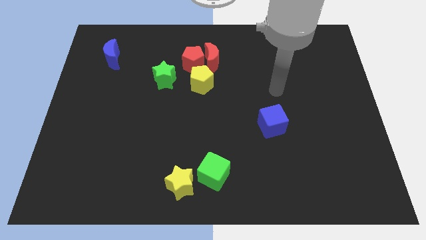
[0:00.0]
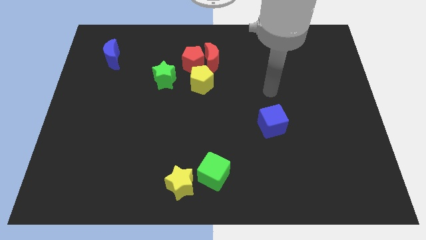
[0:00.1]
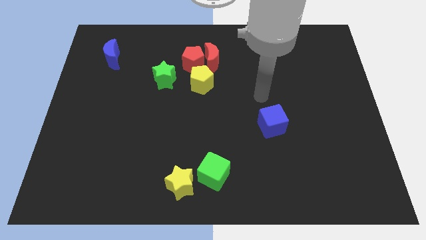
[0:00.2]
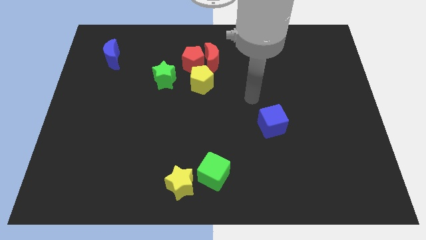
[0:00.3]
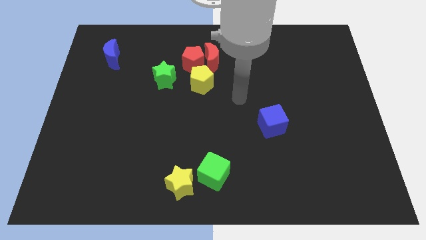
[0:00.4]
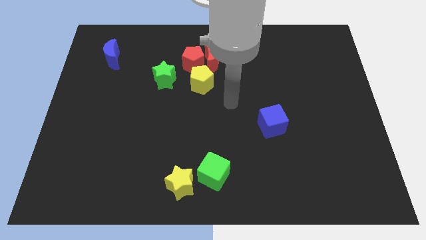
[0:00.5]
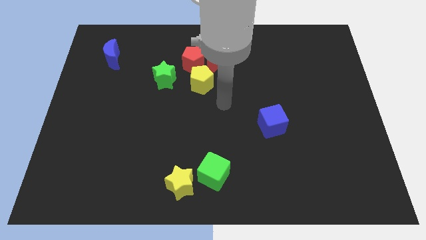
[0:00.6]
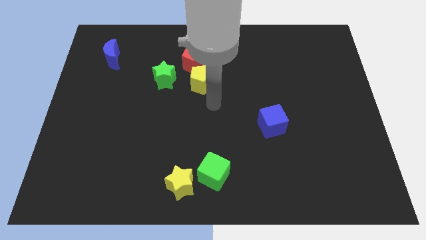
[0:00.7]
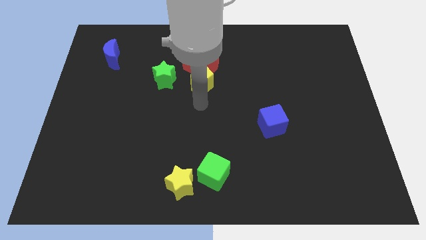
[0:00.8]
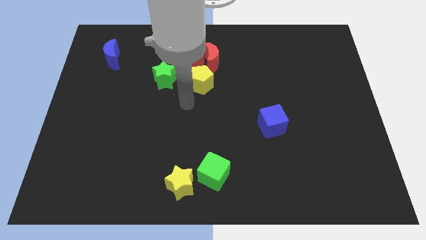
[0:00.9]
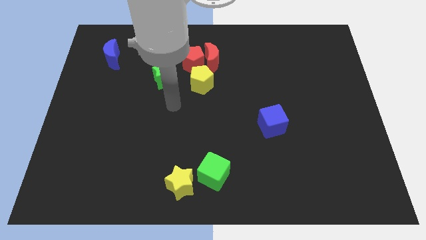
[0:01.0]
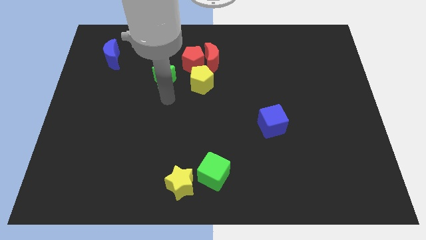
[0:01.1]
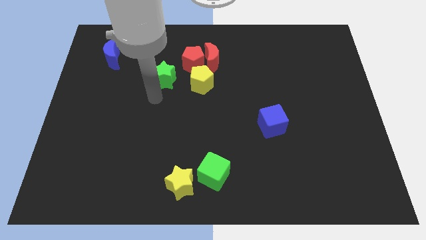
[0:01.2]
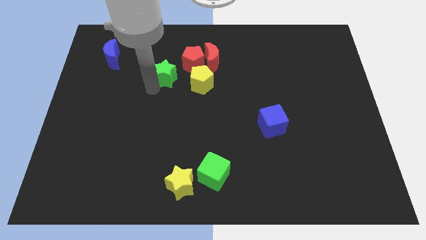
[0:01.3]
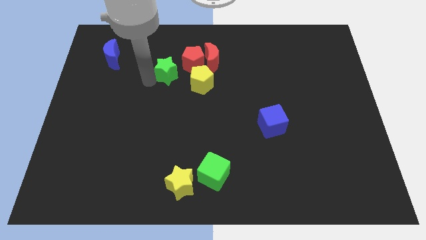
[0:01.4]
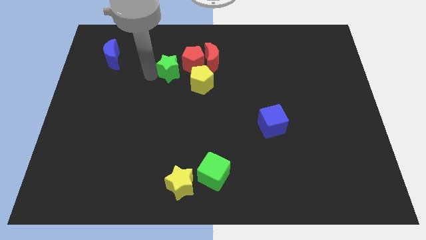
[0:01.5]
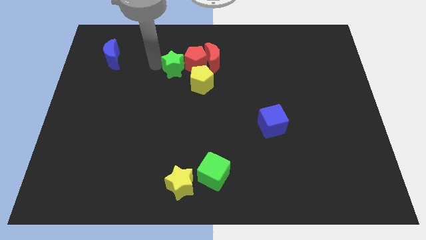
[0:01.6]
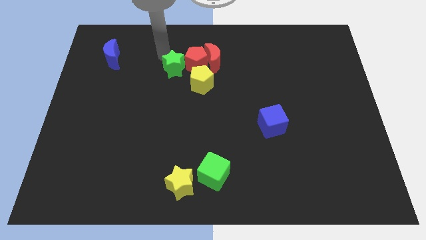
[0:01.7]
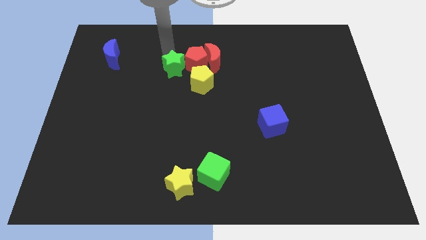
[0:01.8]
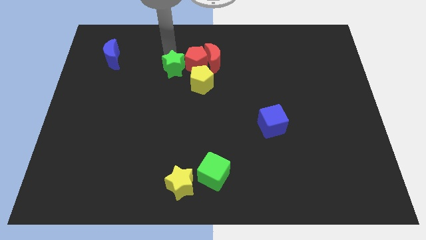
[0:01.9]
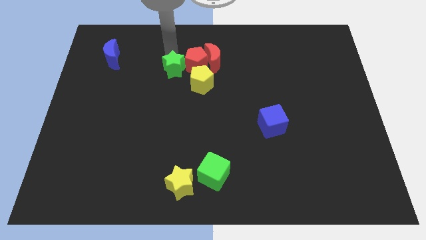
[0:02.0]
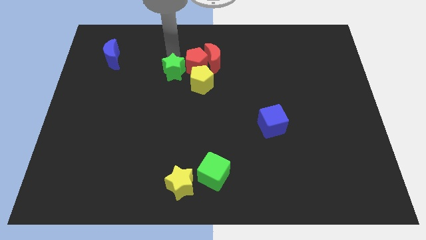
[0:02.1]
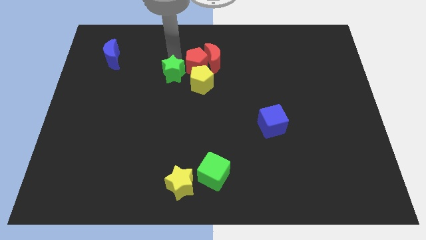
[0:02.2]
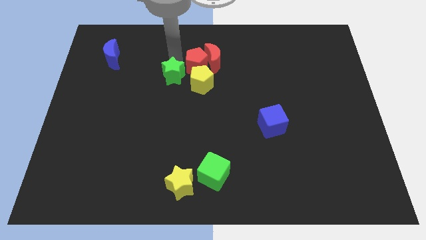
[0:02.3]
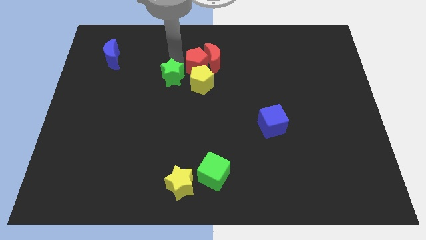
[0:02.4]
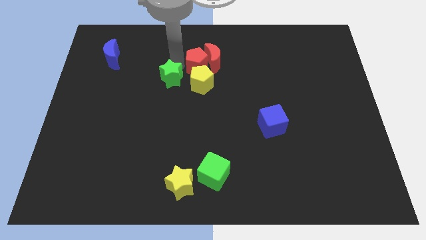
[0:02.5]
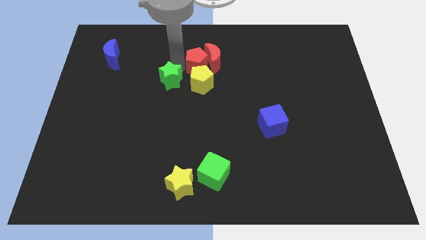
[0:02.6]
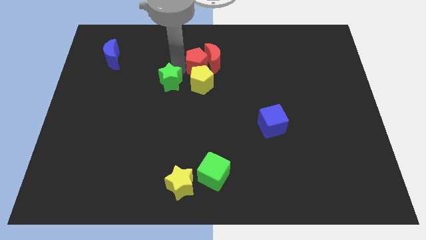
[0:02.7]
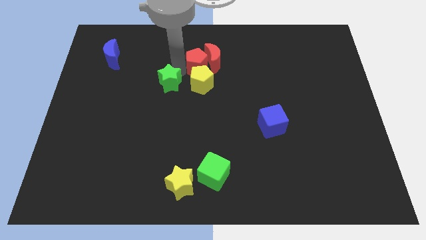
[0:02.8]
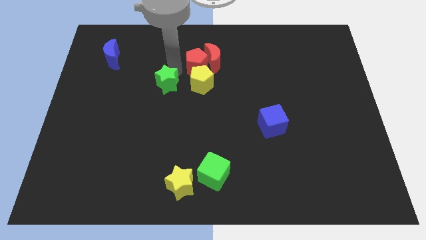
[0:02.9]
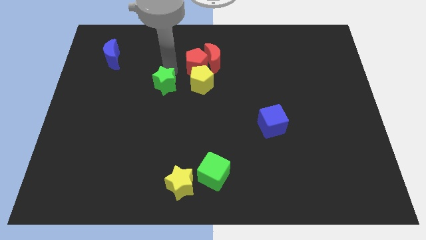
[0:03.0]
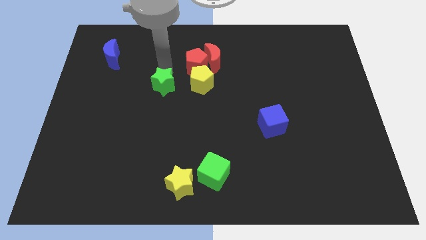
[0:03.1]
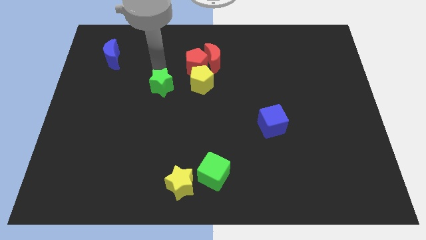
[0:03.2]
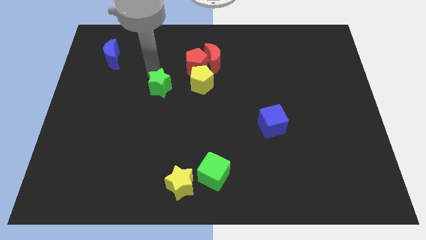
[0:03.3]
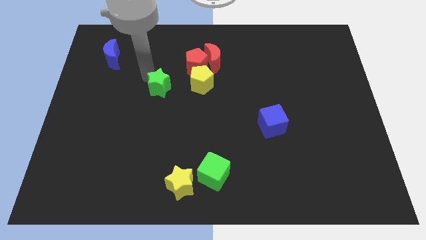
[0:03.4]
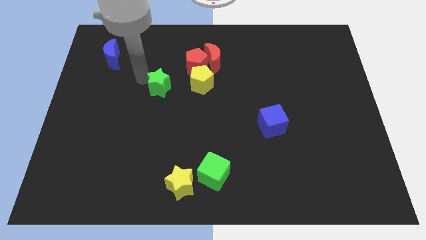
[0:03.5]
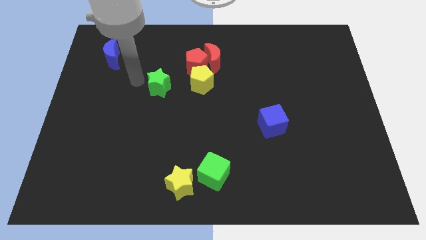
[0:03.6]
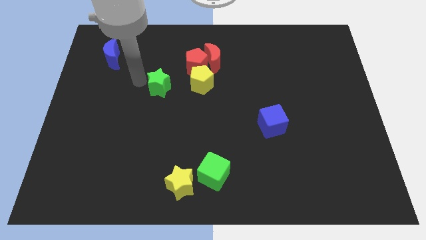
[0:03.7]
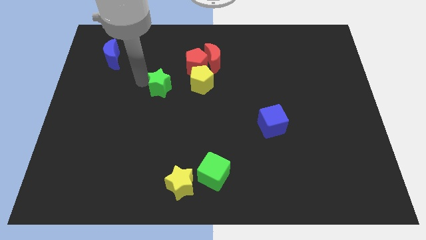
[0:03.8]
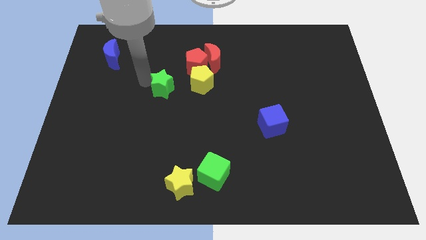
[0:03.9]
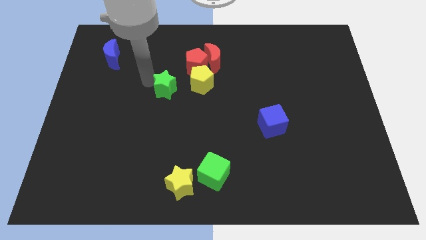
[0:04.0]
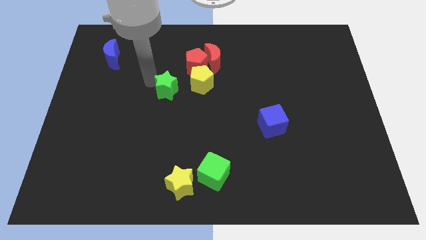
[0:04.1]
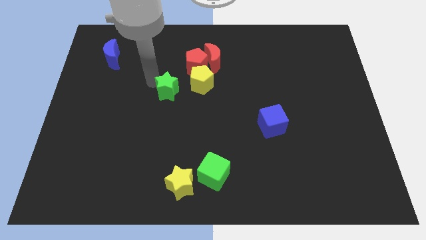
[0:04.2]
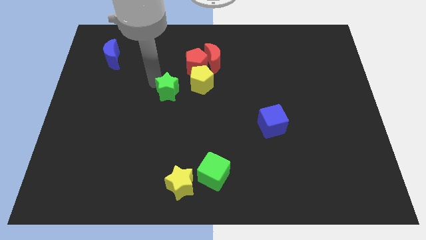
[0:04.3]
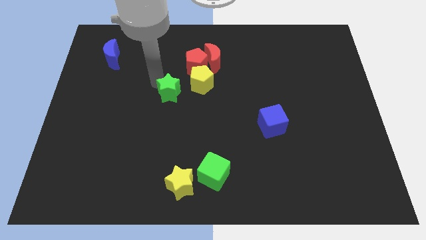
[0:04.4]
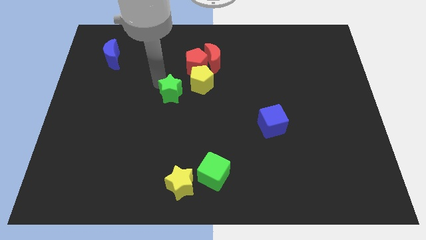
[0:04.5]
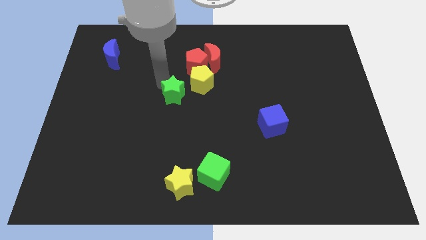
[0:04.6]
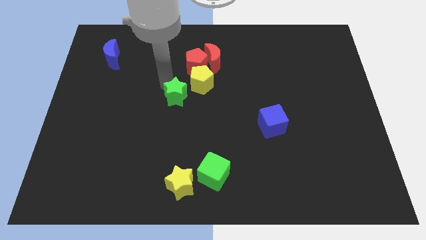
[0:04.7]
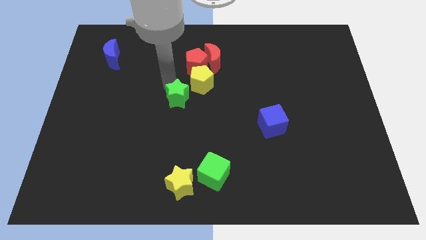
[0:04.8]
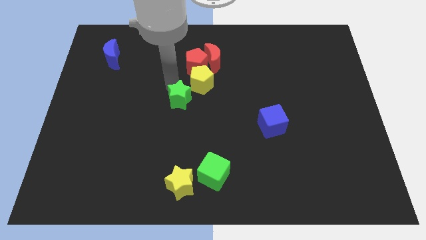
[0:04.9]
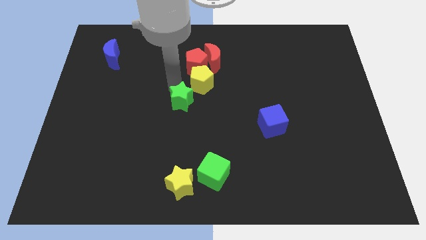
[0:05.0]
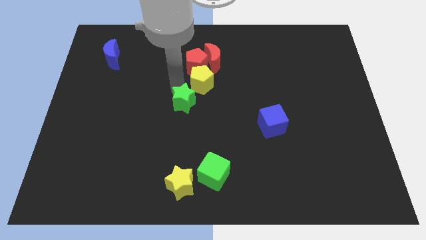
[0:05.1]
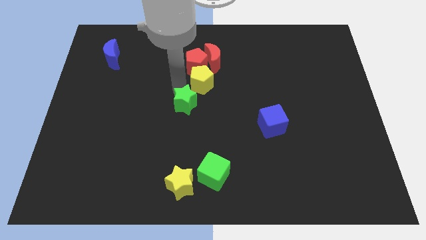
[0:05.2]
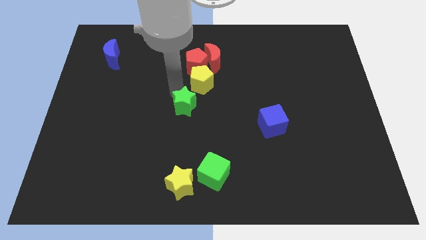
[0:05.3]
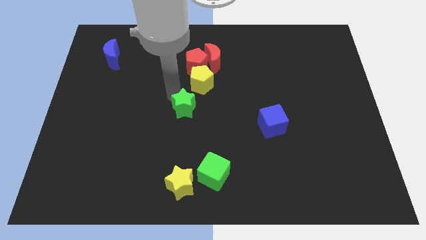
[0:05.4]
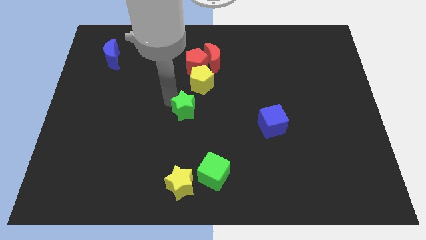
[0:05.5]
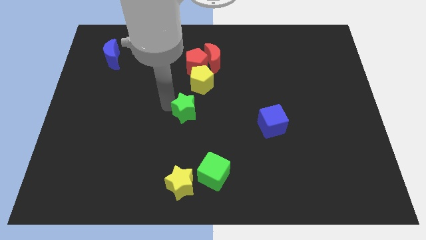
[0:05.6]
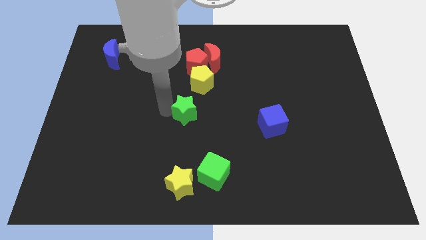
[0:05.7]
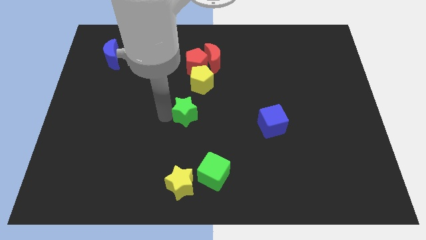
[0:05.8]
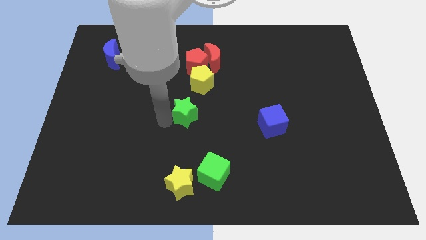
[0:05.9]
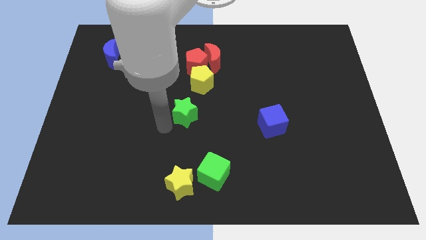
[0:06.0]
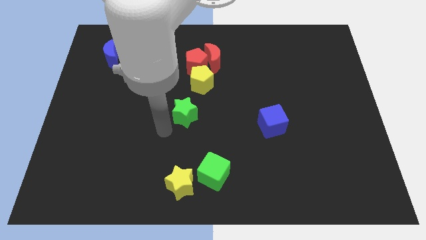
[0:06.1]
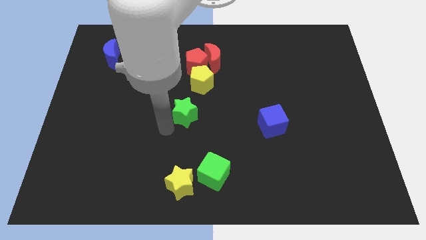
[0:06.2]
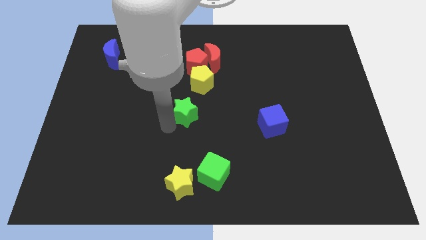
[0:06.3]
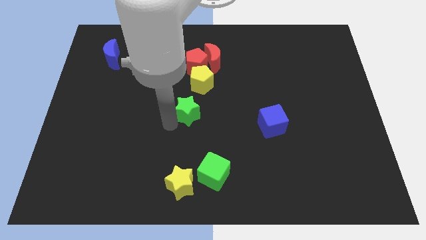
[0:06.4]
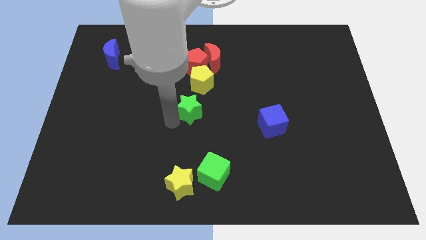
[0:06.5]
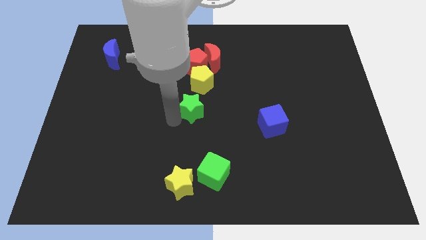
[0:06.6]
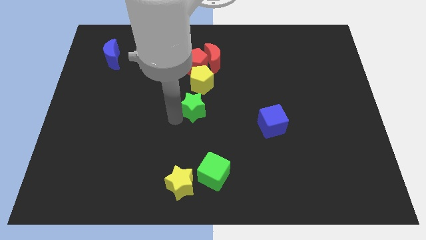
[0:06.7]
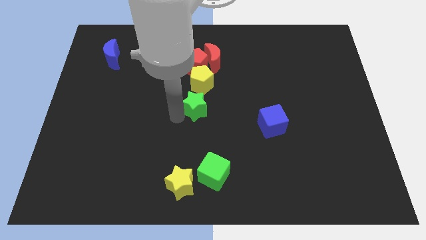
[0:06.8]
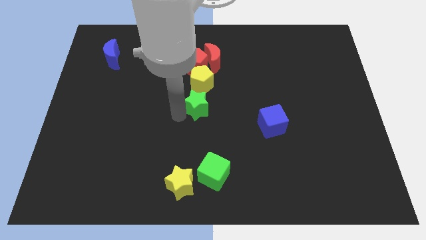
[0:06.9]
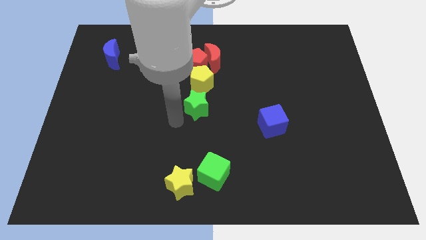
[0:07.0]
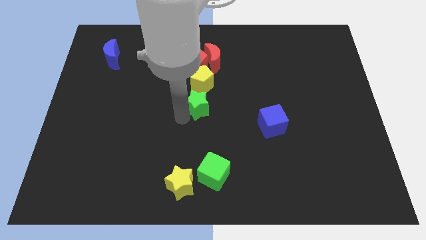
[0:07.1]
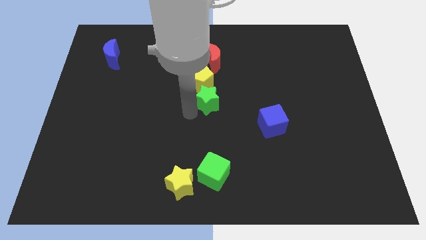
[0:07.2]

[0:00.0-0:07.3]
push the green star right a little bit

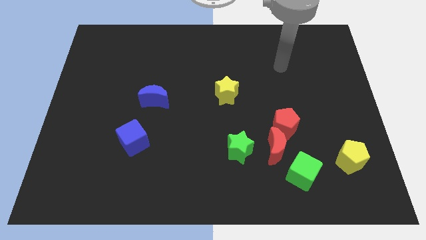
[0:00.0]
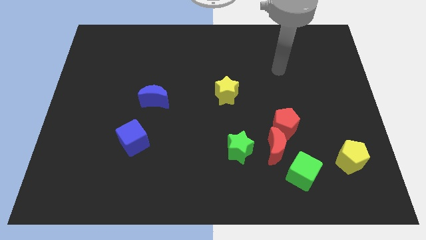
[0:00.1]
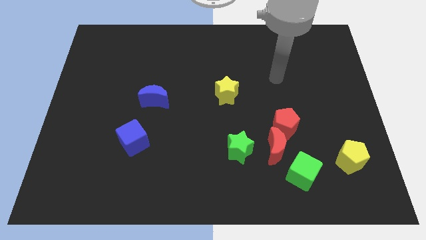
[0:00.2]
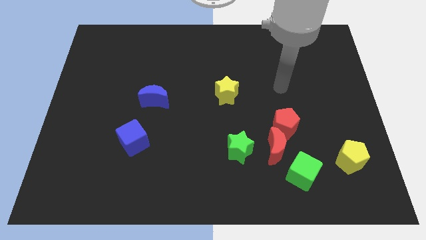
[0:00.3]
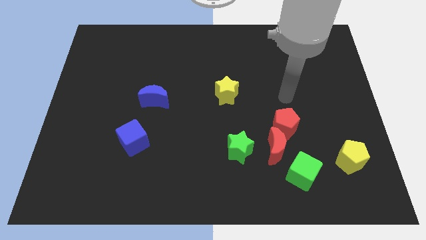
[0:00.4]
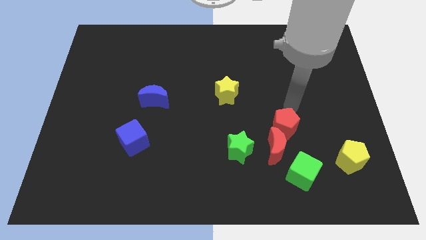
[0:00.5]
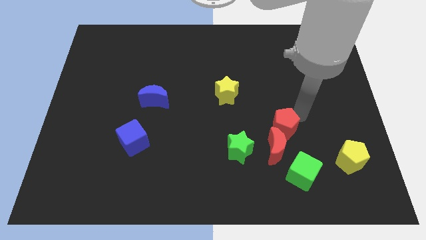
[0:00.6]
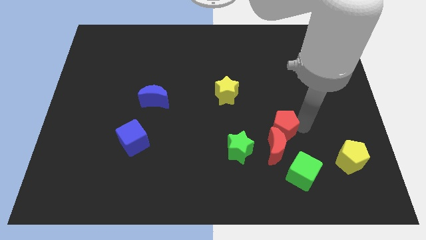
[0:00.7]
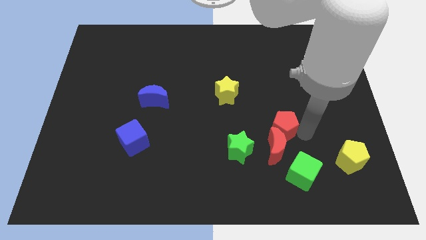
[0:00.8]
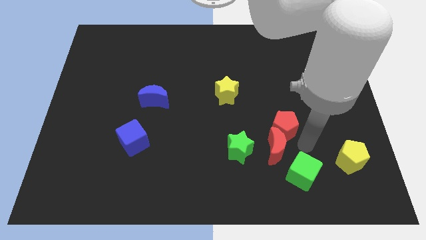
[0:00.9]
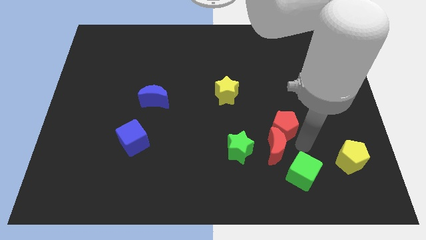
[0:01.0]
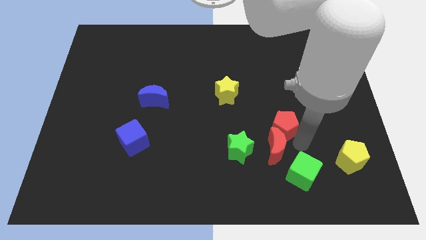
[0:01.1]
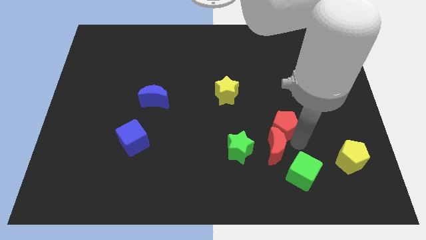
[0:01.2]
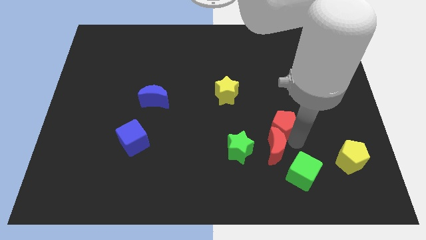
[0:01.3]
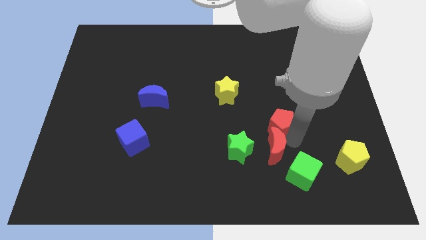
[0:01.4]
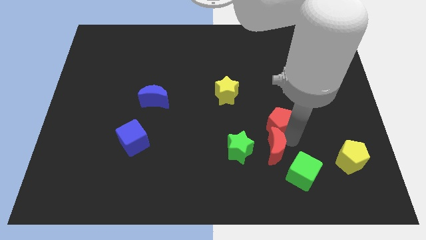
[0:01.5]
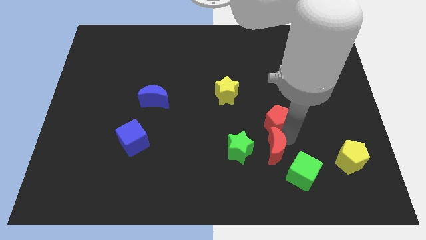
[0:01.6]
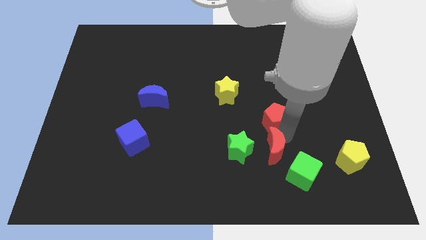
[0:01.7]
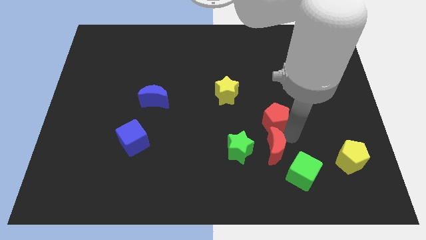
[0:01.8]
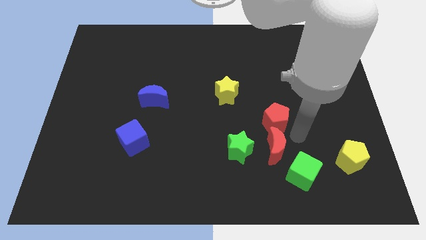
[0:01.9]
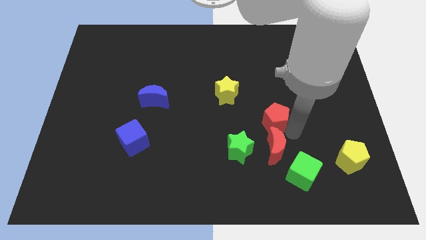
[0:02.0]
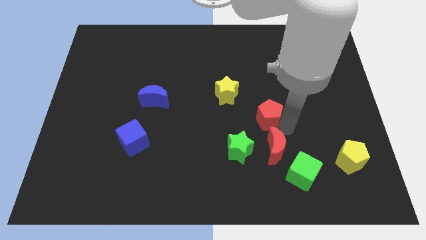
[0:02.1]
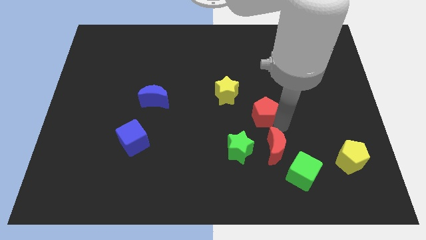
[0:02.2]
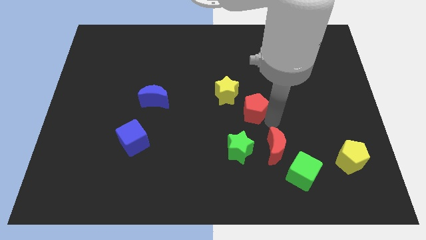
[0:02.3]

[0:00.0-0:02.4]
slightly move the red pentagon up and then left
